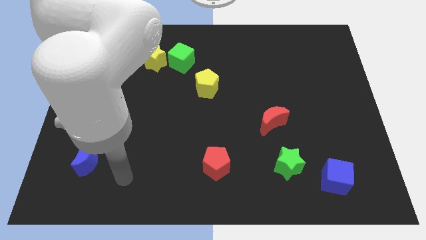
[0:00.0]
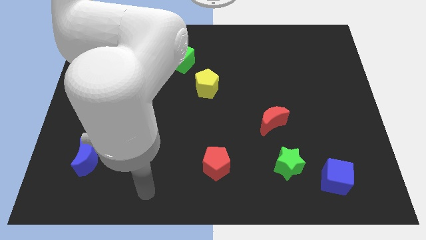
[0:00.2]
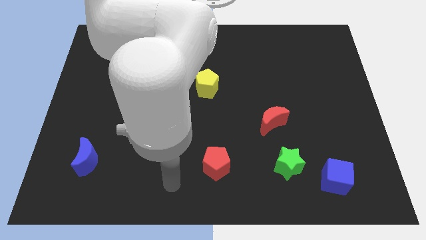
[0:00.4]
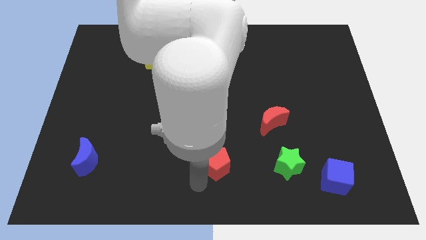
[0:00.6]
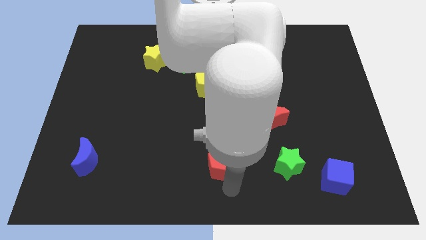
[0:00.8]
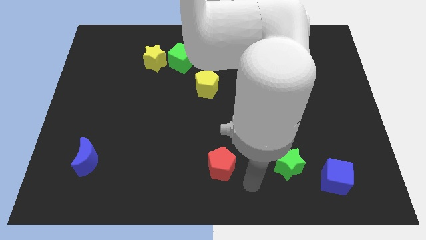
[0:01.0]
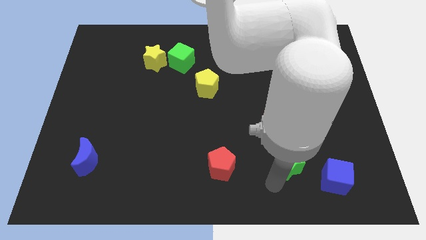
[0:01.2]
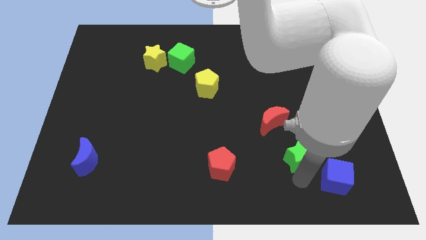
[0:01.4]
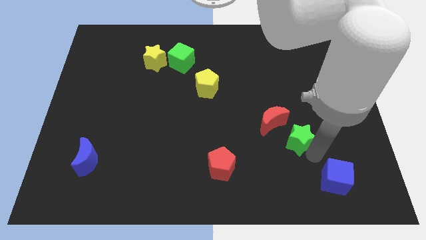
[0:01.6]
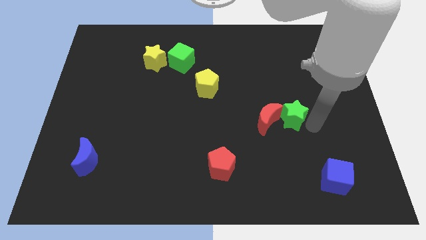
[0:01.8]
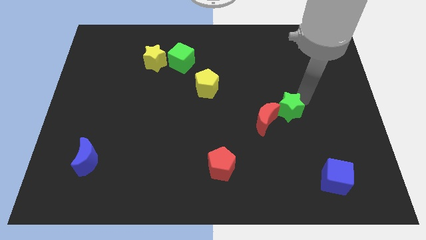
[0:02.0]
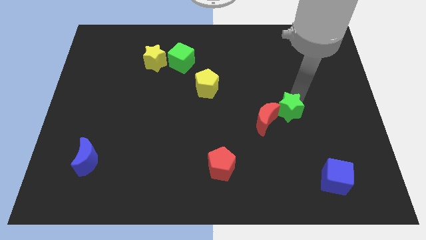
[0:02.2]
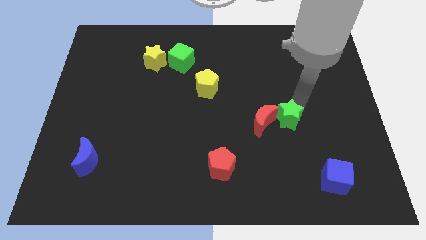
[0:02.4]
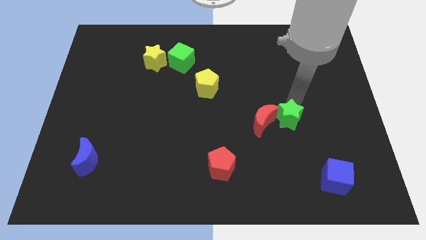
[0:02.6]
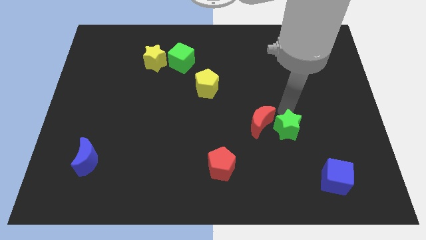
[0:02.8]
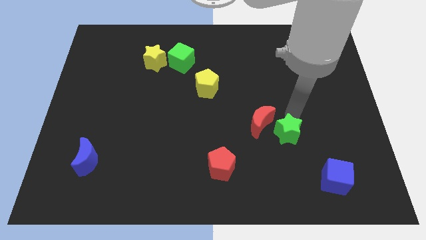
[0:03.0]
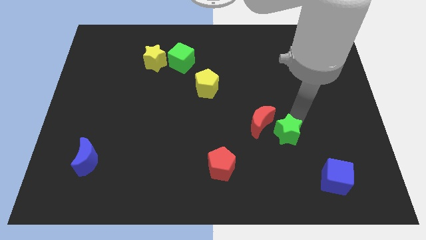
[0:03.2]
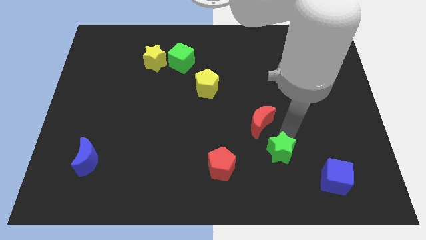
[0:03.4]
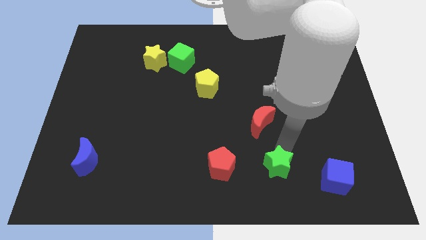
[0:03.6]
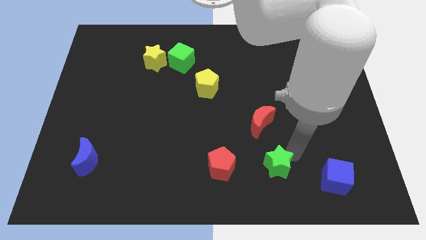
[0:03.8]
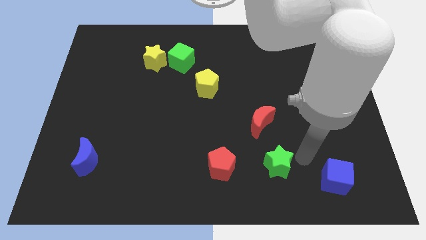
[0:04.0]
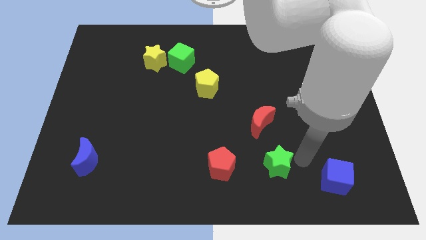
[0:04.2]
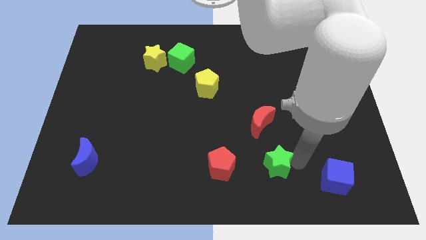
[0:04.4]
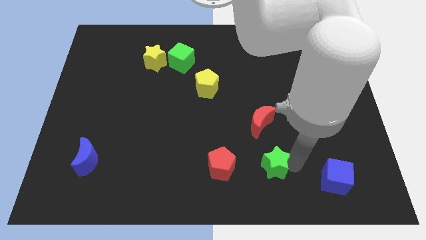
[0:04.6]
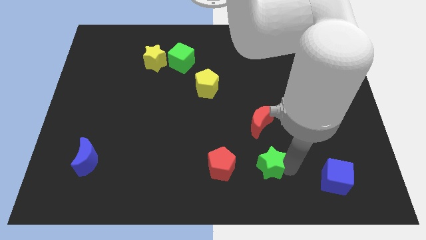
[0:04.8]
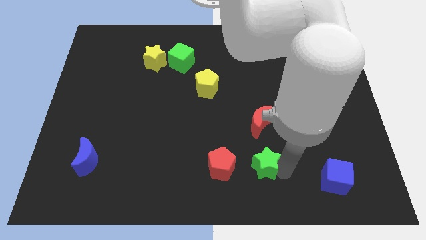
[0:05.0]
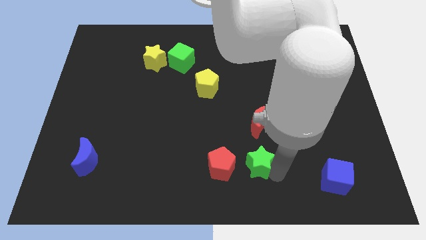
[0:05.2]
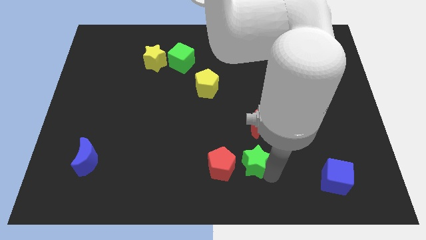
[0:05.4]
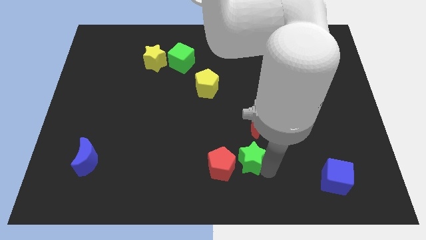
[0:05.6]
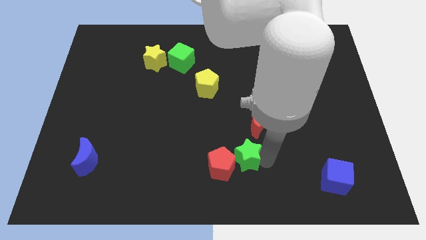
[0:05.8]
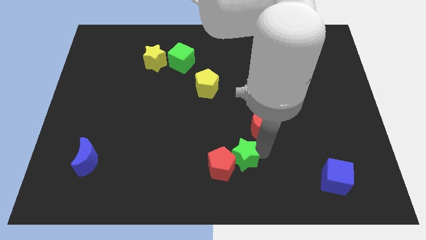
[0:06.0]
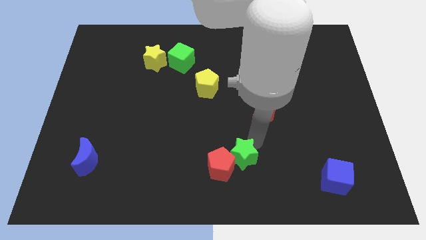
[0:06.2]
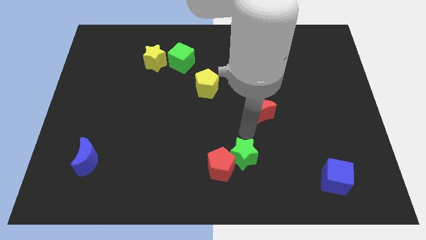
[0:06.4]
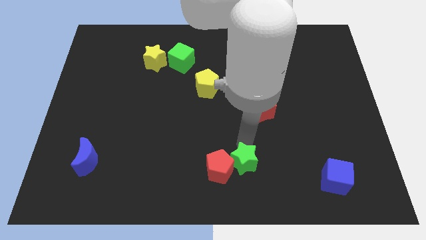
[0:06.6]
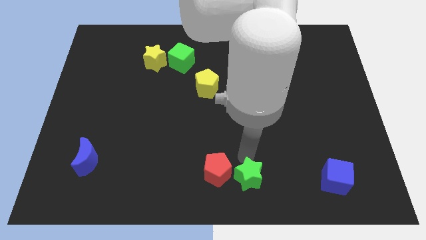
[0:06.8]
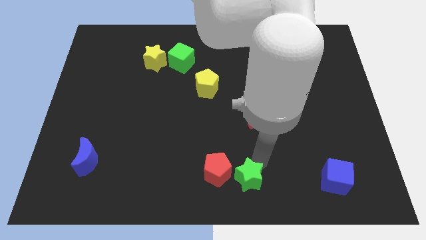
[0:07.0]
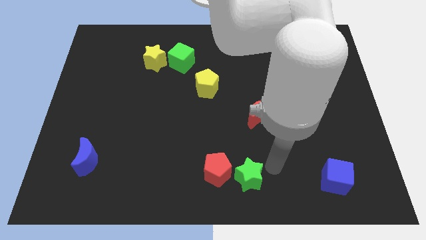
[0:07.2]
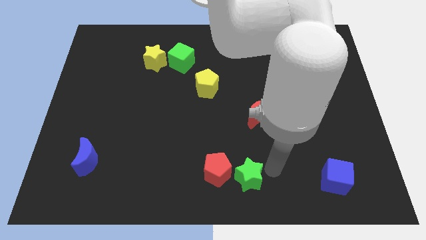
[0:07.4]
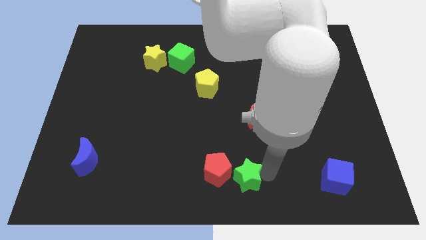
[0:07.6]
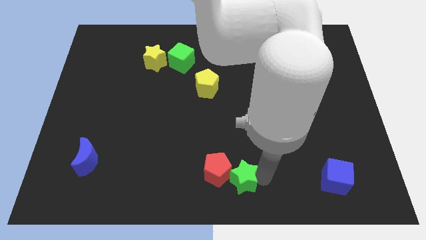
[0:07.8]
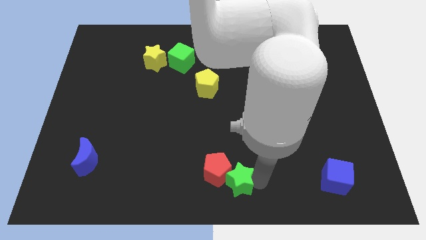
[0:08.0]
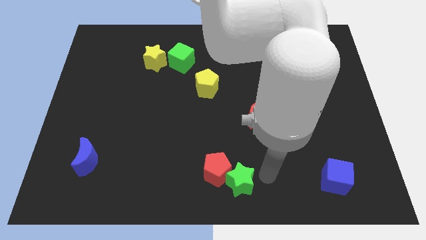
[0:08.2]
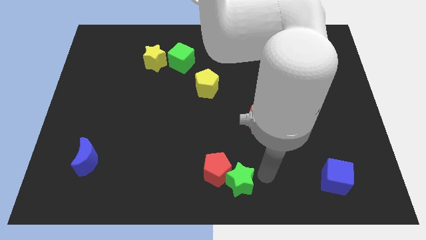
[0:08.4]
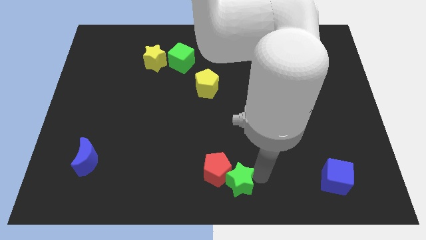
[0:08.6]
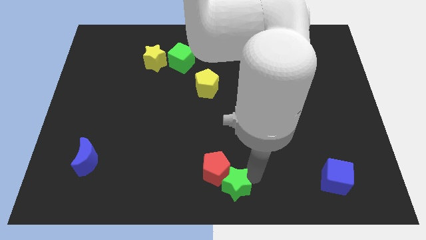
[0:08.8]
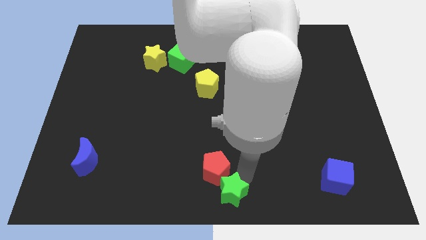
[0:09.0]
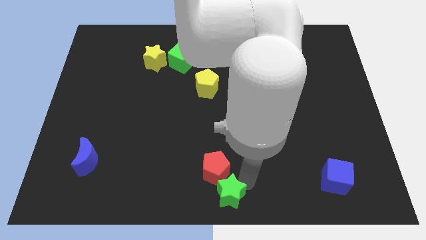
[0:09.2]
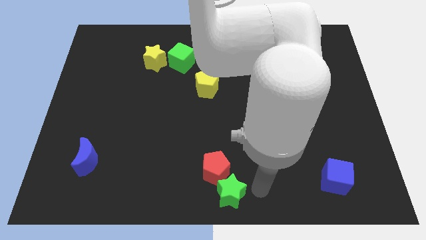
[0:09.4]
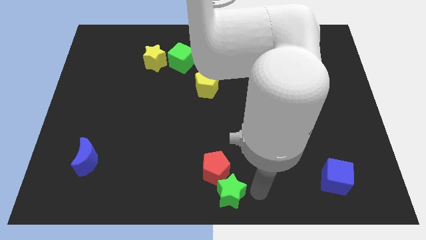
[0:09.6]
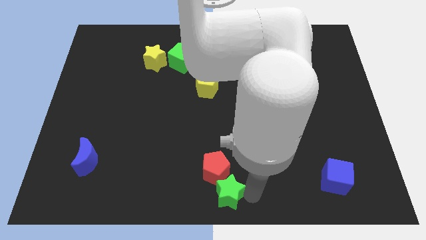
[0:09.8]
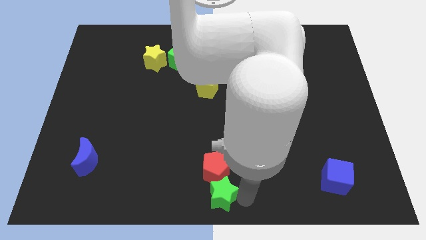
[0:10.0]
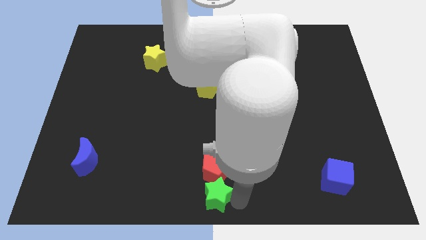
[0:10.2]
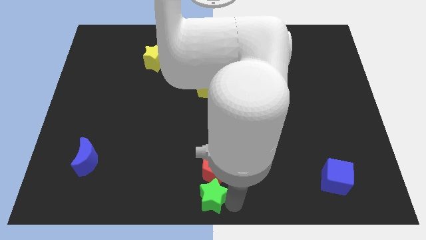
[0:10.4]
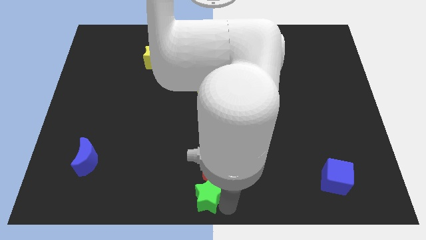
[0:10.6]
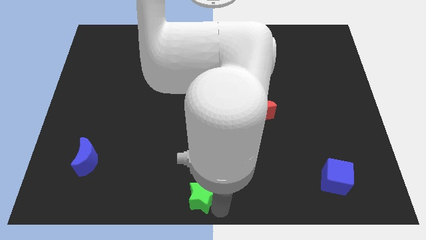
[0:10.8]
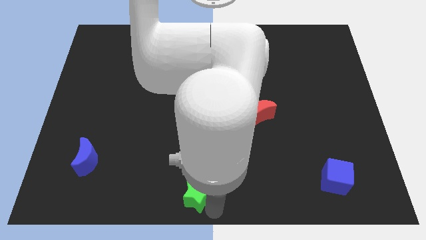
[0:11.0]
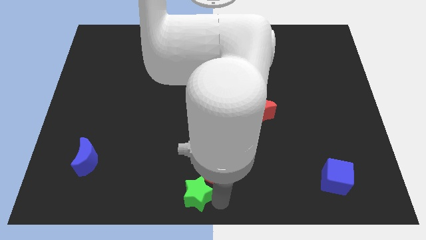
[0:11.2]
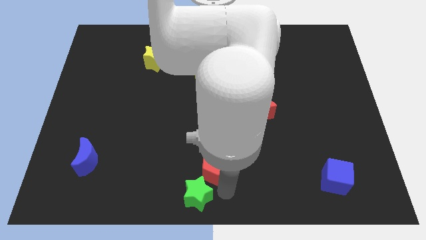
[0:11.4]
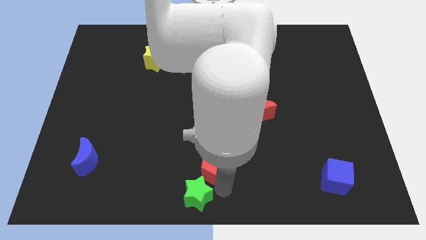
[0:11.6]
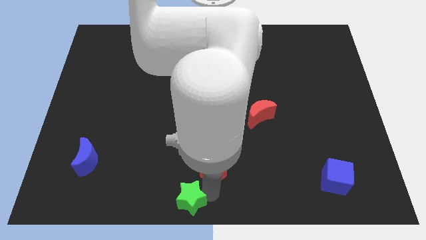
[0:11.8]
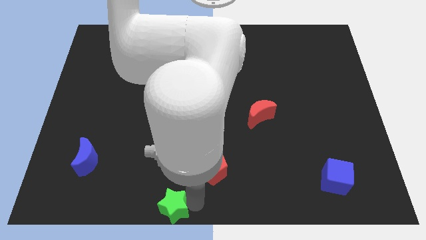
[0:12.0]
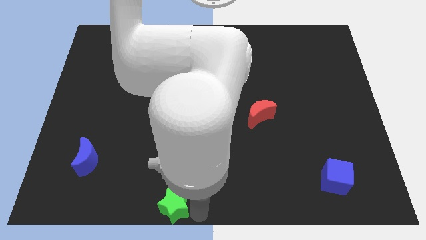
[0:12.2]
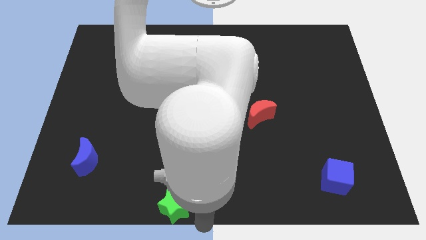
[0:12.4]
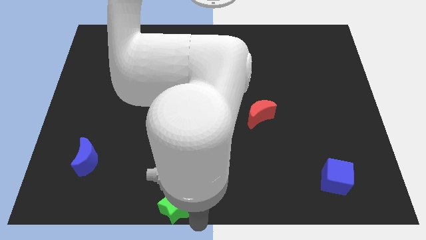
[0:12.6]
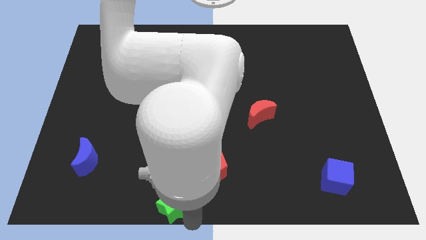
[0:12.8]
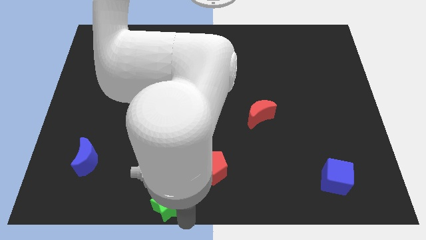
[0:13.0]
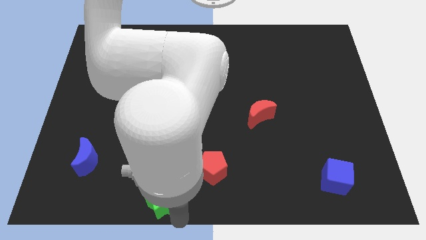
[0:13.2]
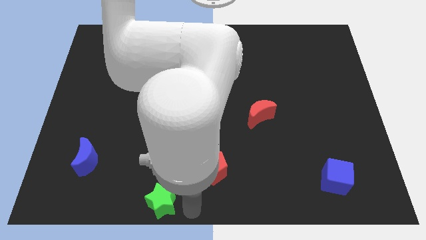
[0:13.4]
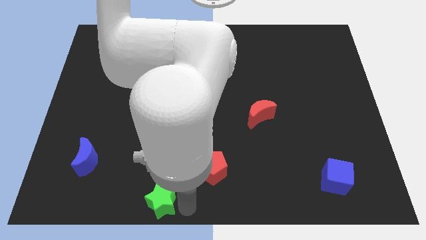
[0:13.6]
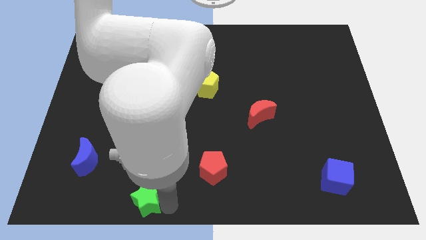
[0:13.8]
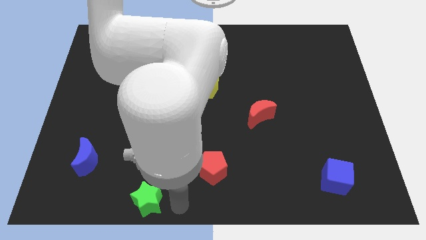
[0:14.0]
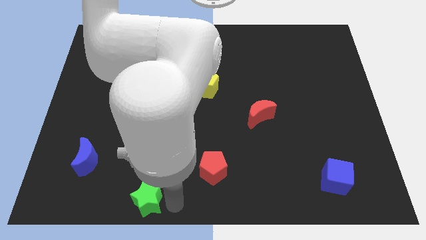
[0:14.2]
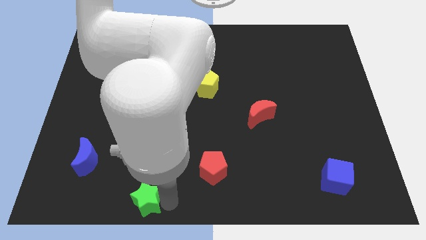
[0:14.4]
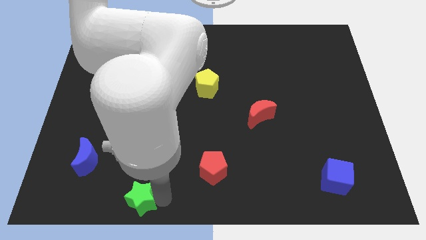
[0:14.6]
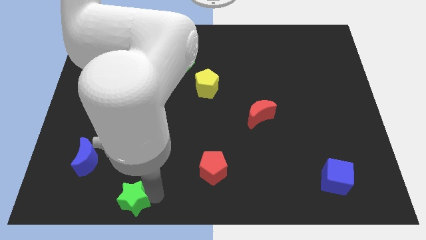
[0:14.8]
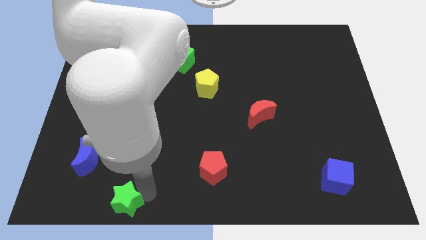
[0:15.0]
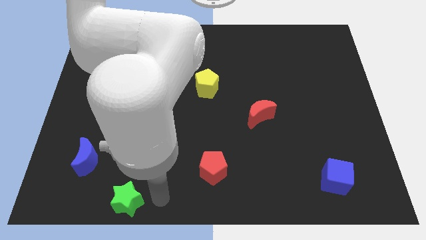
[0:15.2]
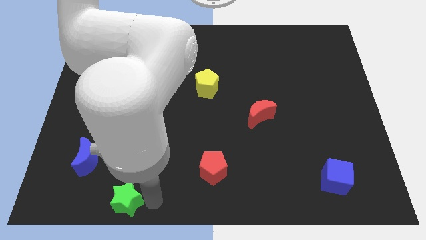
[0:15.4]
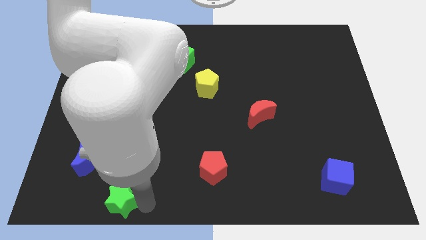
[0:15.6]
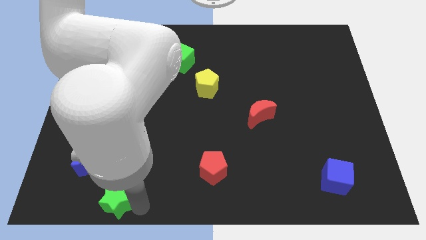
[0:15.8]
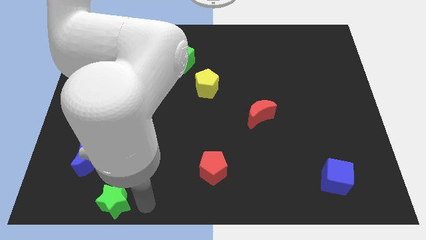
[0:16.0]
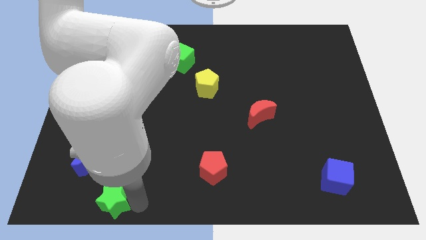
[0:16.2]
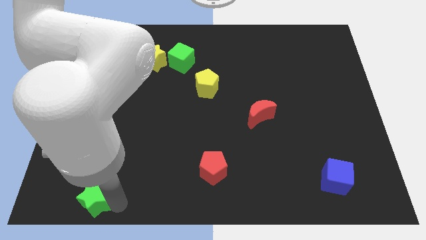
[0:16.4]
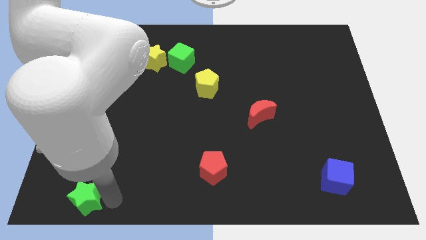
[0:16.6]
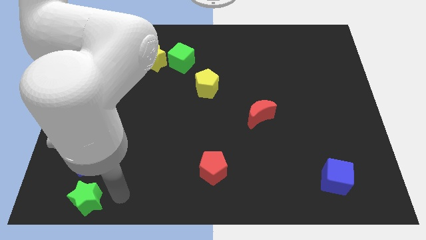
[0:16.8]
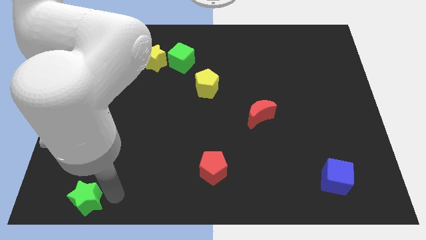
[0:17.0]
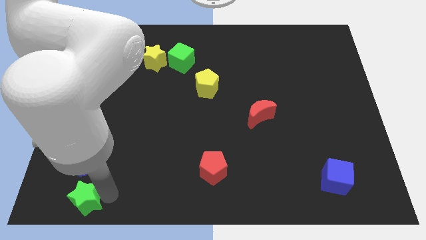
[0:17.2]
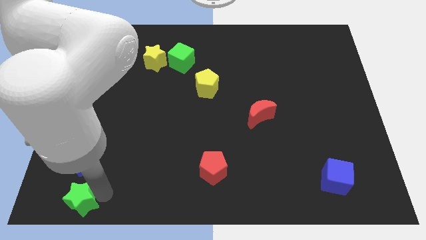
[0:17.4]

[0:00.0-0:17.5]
push the green star to the bottom left of the board
